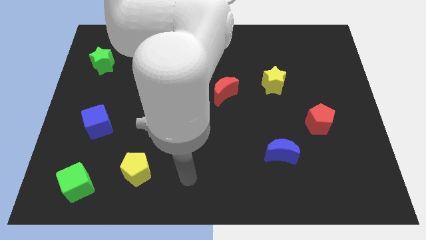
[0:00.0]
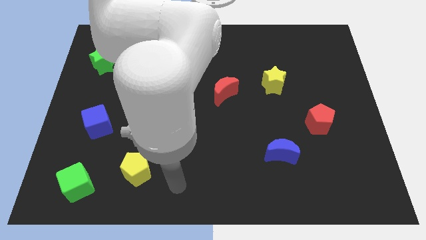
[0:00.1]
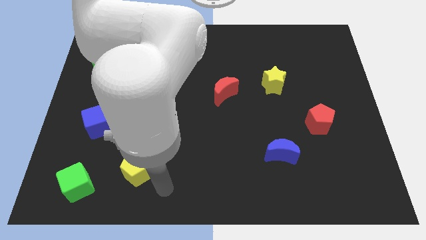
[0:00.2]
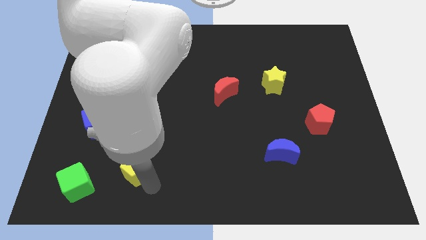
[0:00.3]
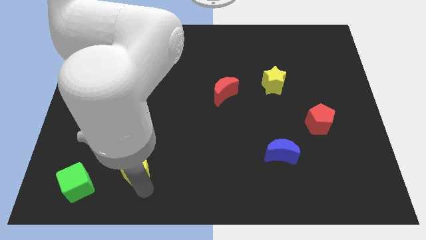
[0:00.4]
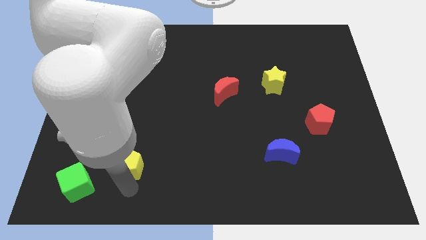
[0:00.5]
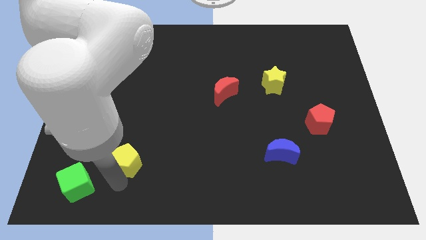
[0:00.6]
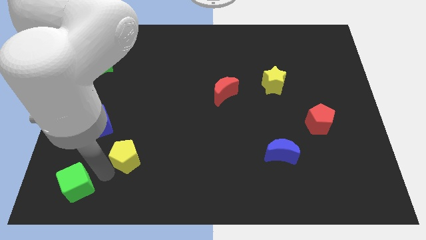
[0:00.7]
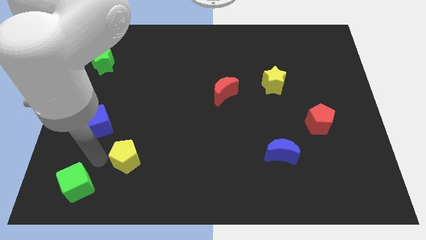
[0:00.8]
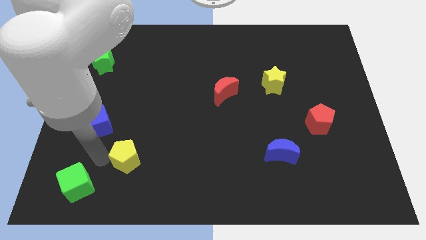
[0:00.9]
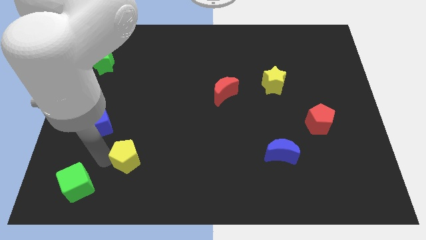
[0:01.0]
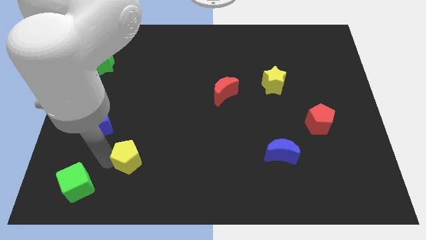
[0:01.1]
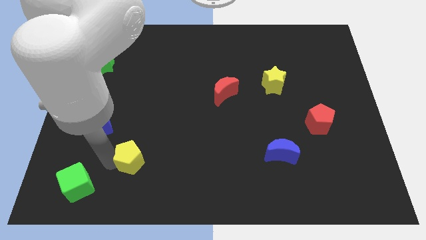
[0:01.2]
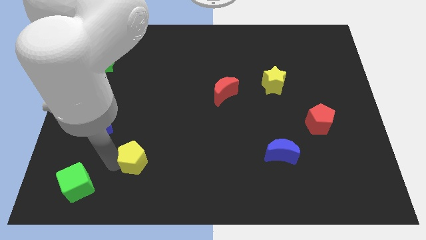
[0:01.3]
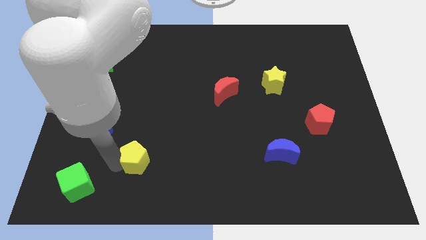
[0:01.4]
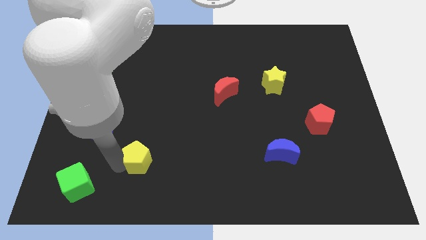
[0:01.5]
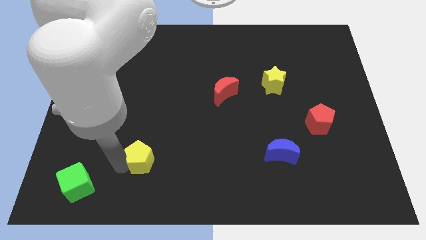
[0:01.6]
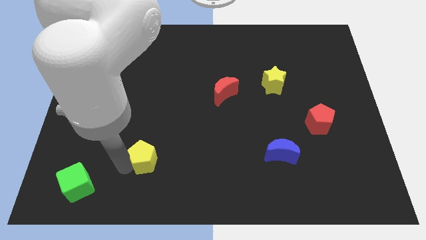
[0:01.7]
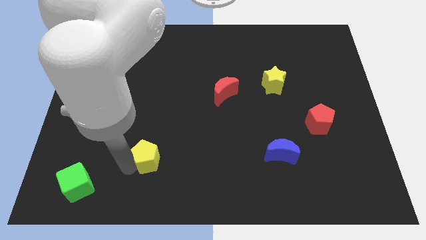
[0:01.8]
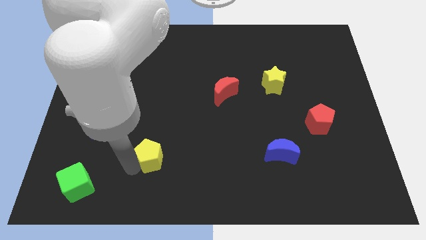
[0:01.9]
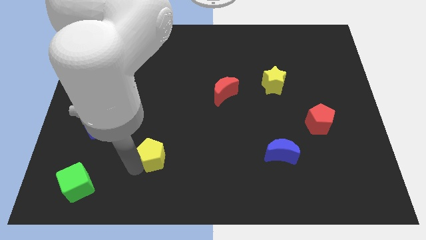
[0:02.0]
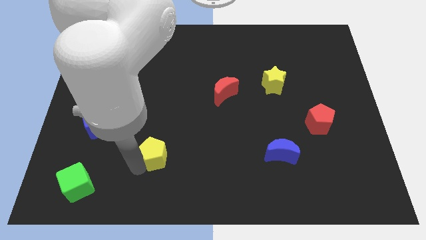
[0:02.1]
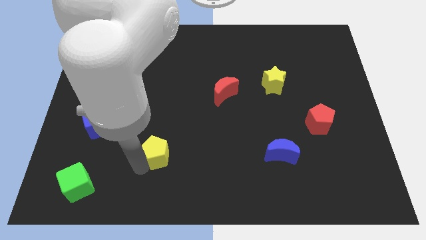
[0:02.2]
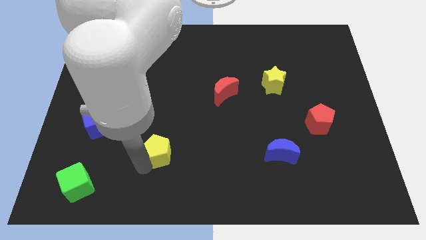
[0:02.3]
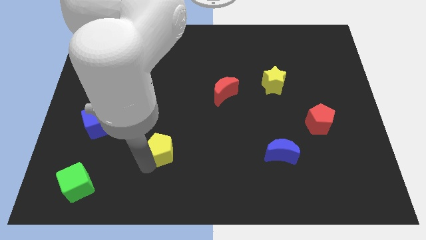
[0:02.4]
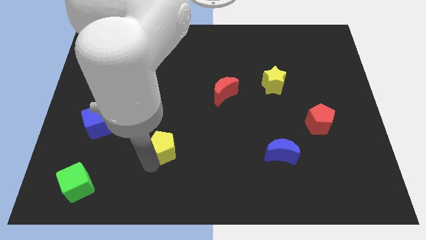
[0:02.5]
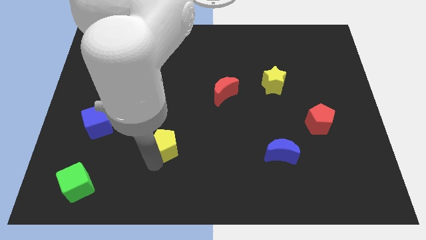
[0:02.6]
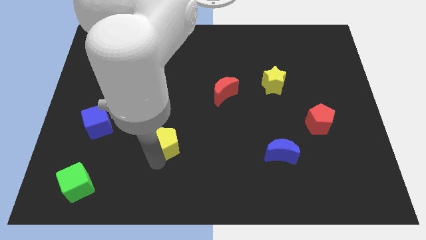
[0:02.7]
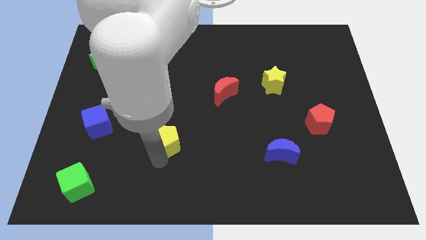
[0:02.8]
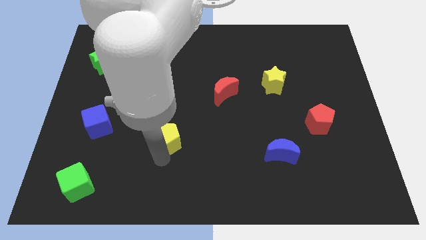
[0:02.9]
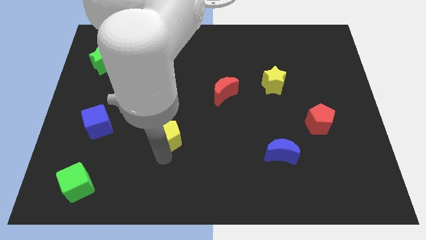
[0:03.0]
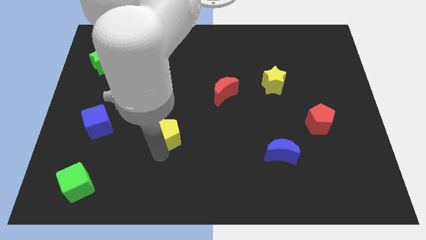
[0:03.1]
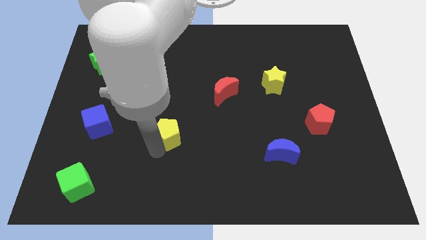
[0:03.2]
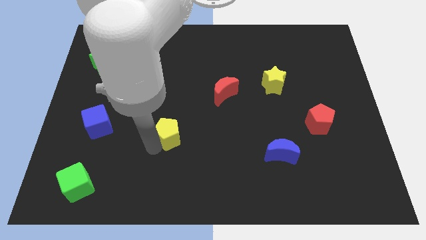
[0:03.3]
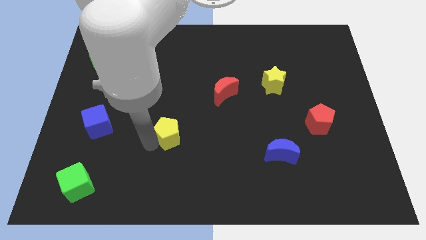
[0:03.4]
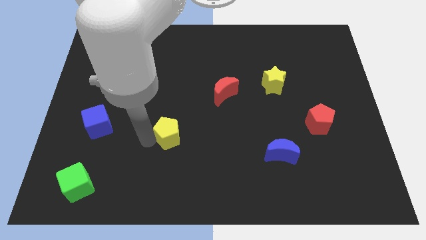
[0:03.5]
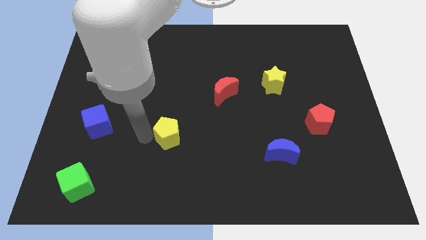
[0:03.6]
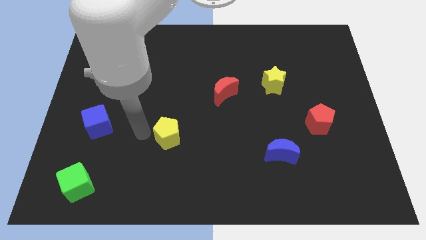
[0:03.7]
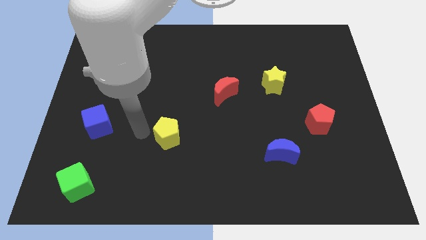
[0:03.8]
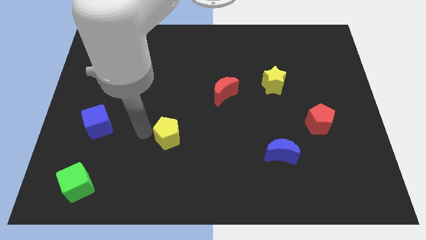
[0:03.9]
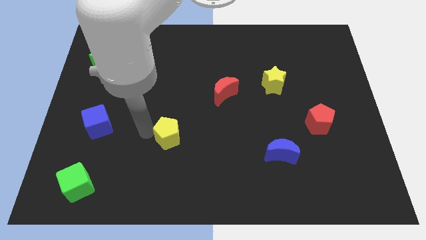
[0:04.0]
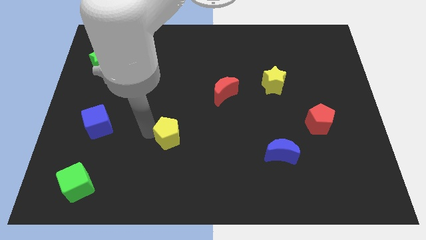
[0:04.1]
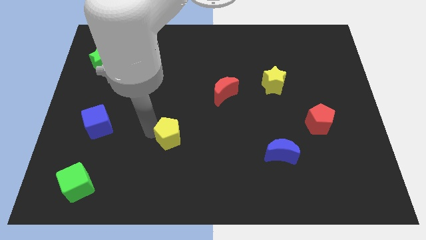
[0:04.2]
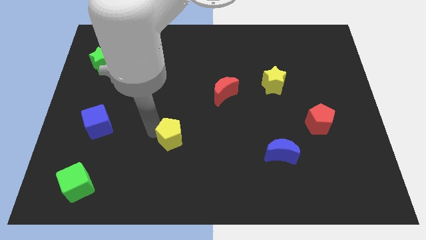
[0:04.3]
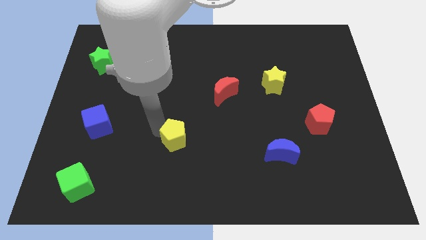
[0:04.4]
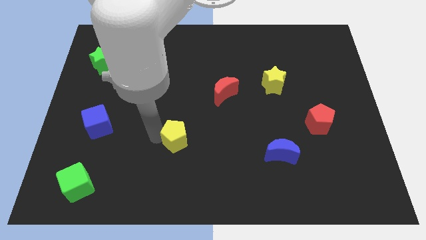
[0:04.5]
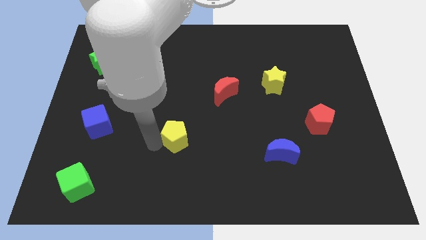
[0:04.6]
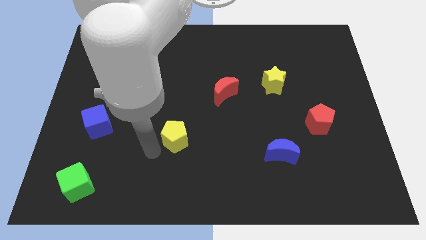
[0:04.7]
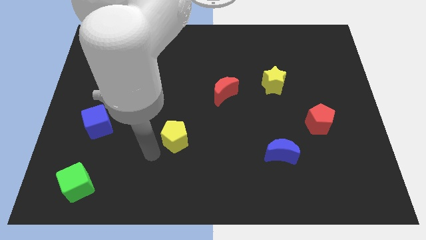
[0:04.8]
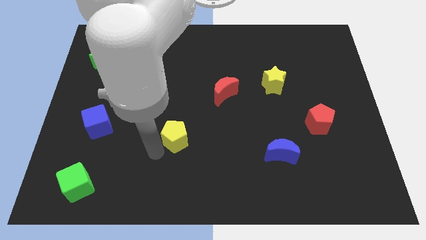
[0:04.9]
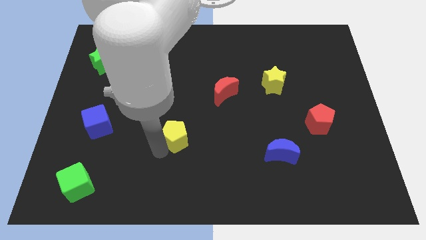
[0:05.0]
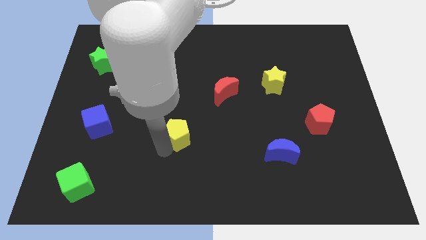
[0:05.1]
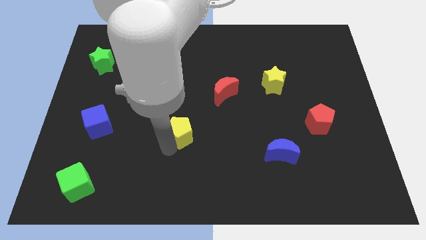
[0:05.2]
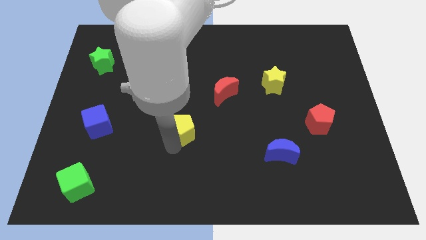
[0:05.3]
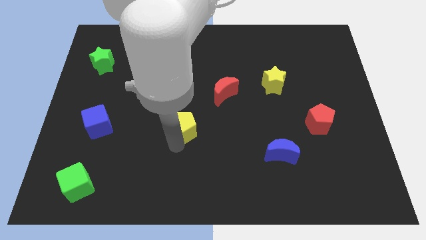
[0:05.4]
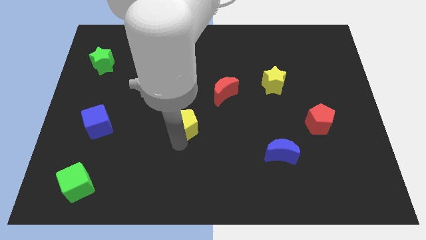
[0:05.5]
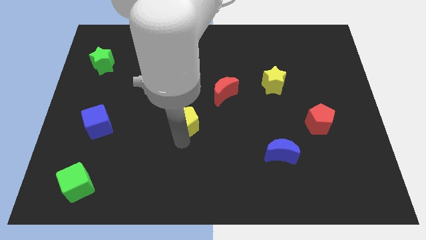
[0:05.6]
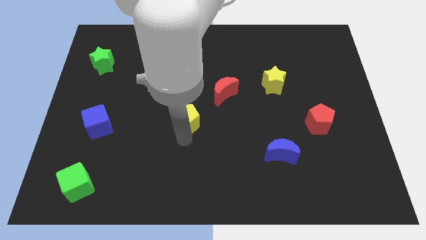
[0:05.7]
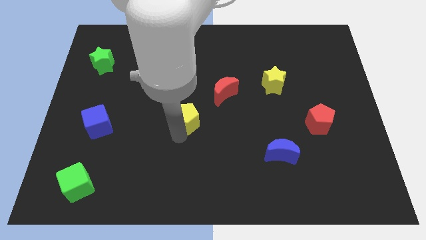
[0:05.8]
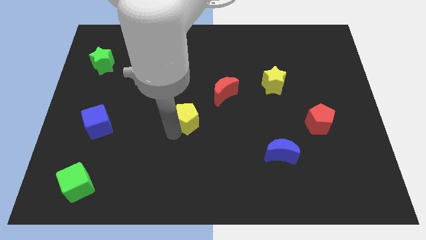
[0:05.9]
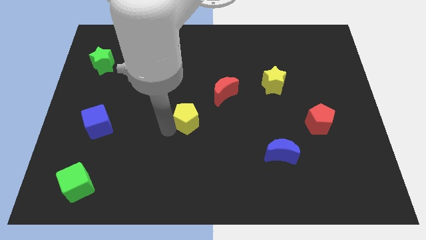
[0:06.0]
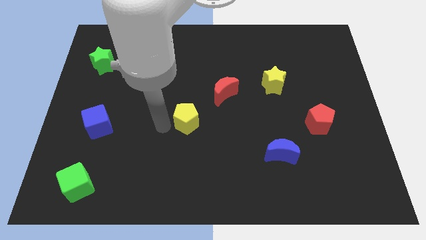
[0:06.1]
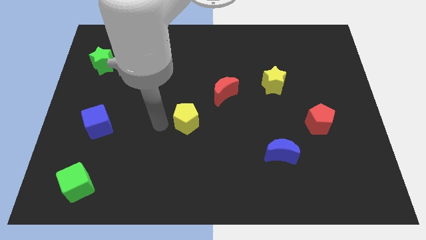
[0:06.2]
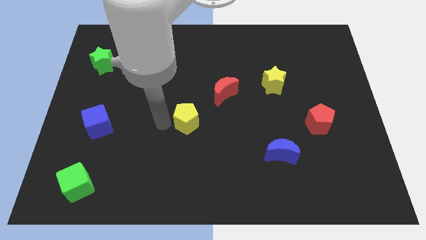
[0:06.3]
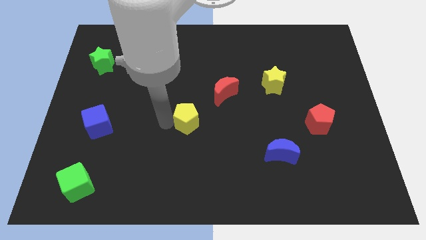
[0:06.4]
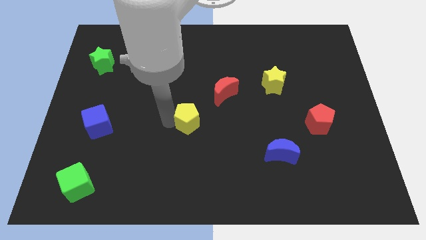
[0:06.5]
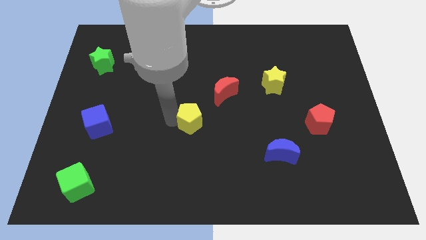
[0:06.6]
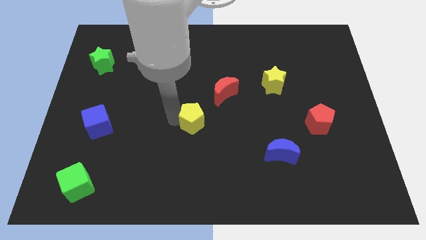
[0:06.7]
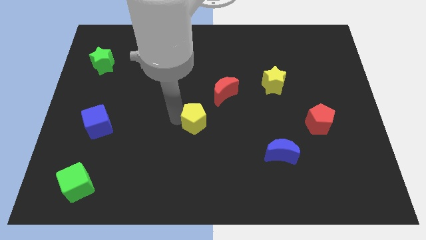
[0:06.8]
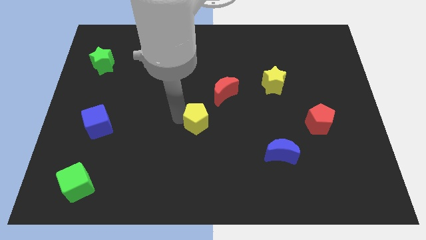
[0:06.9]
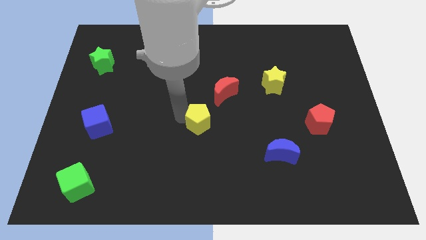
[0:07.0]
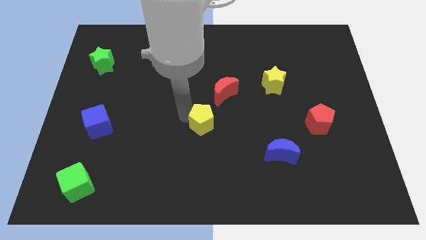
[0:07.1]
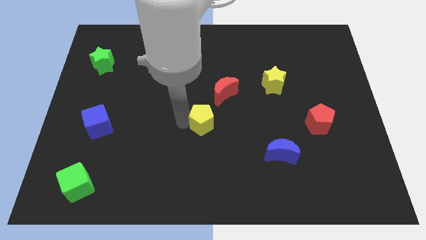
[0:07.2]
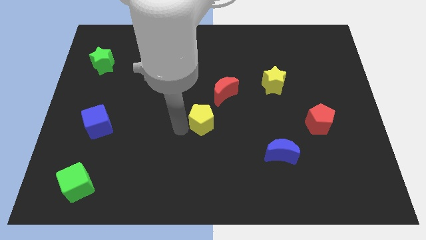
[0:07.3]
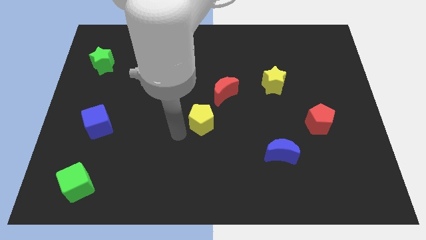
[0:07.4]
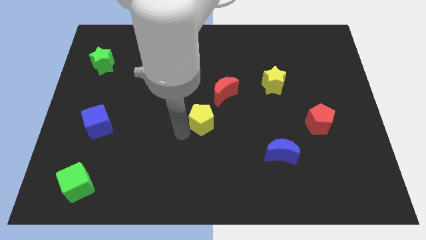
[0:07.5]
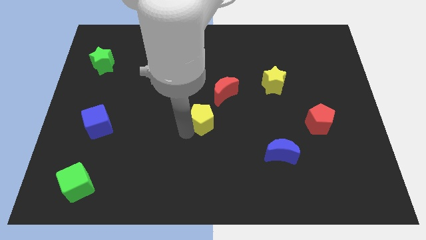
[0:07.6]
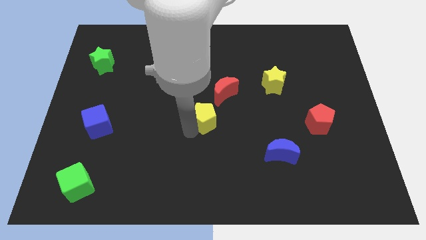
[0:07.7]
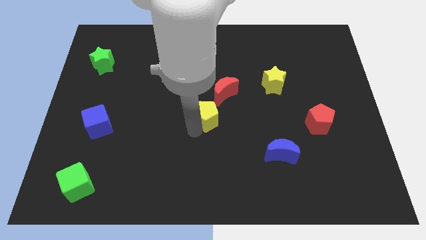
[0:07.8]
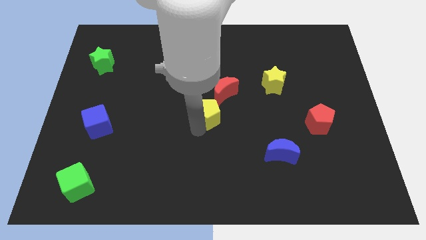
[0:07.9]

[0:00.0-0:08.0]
push the yellow pentagon up and right diagonally

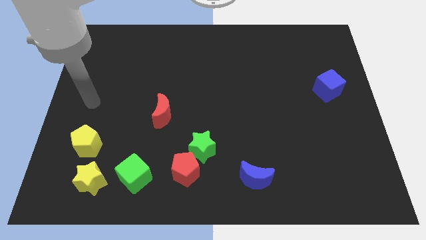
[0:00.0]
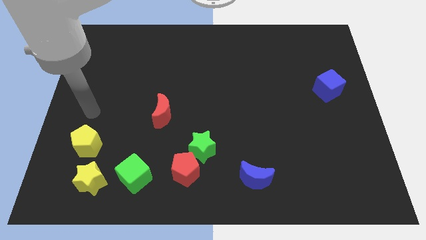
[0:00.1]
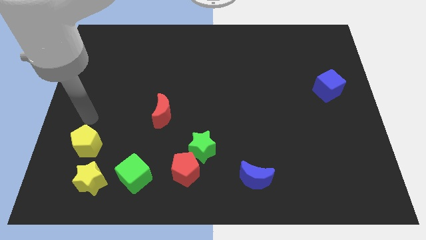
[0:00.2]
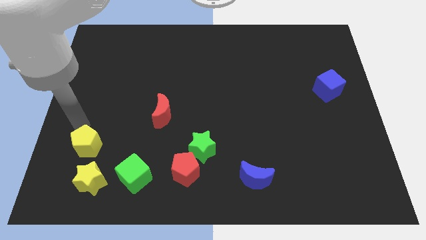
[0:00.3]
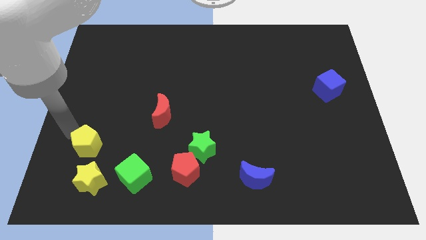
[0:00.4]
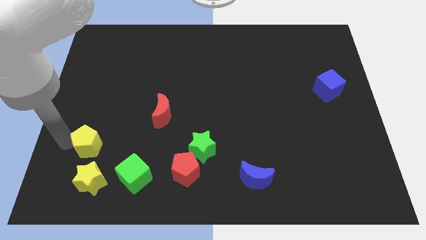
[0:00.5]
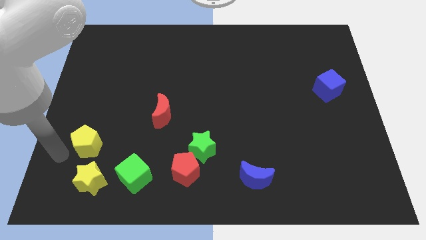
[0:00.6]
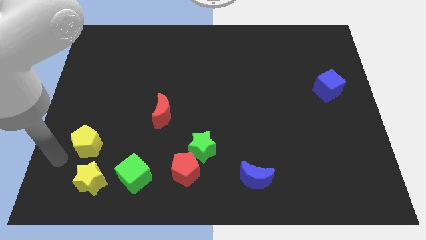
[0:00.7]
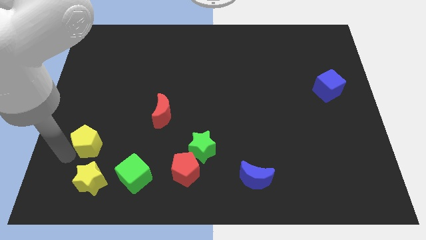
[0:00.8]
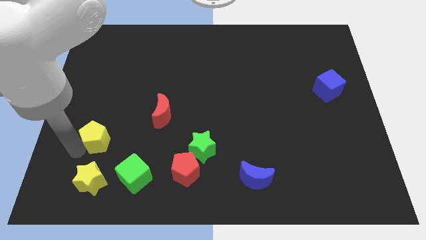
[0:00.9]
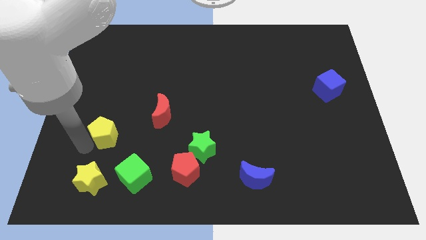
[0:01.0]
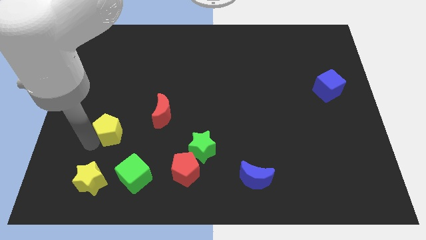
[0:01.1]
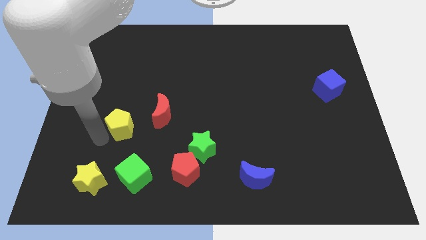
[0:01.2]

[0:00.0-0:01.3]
slightly push the yellow pentagon up and then right
